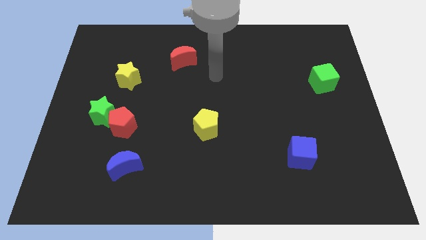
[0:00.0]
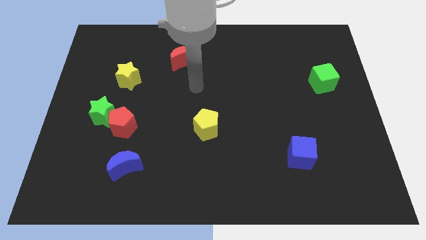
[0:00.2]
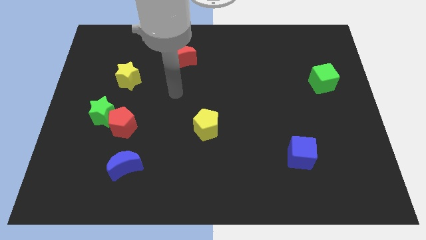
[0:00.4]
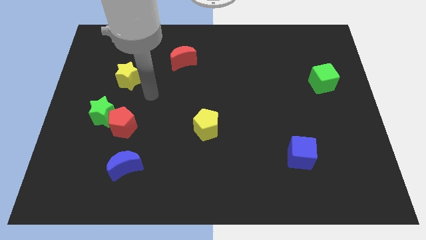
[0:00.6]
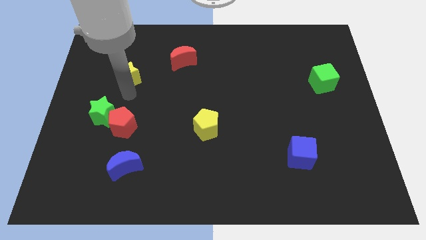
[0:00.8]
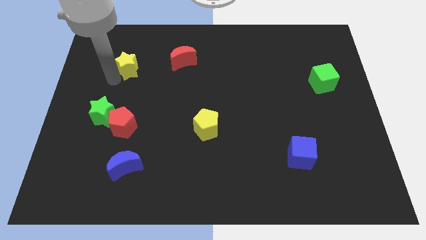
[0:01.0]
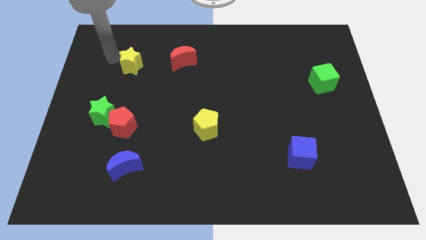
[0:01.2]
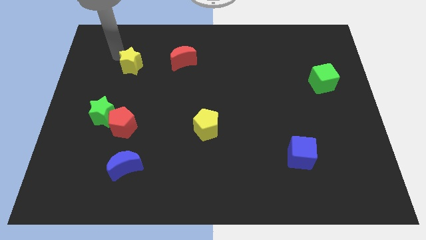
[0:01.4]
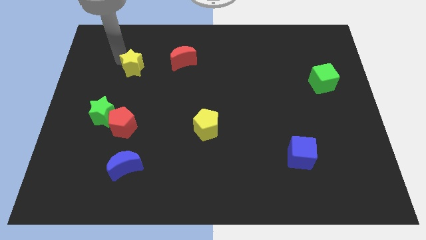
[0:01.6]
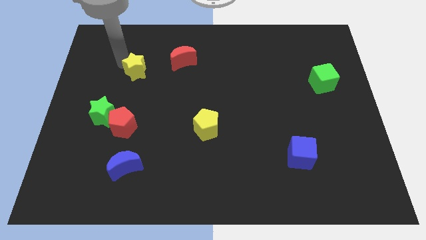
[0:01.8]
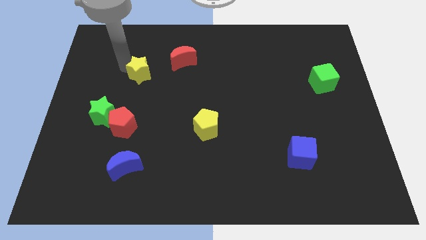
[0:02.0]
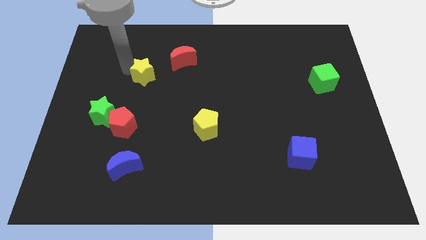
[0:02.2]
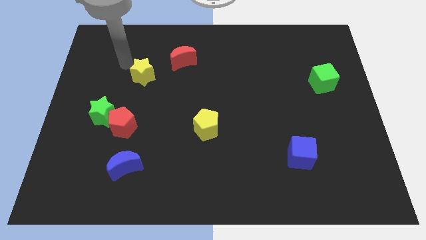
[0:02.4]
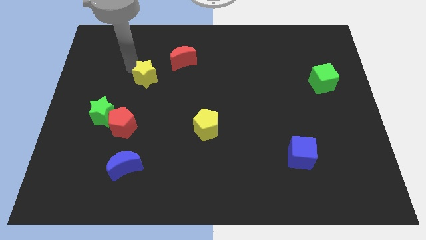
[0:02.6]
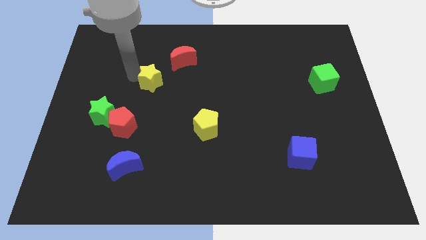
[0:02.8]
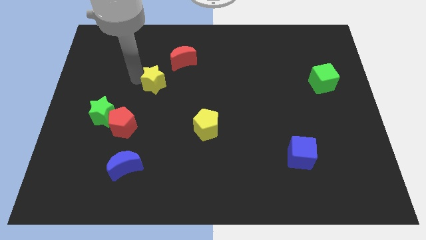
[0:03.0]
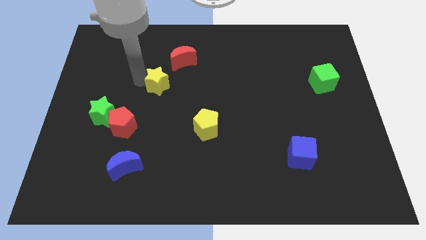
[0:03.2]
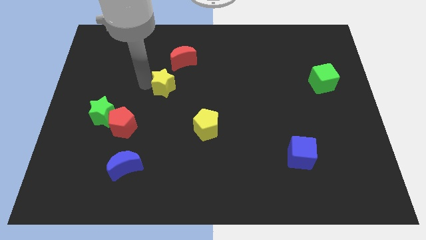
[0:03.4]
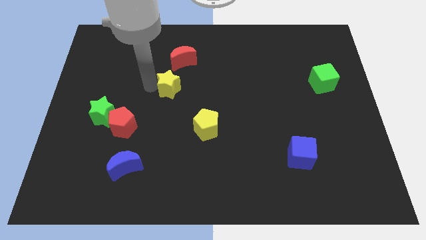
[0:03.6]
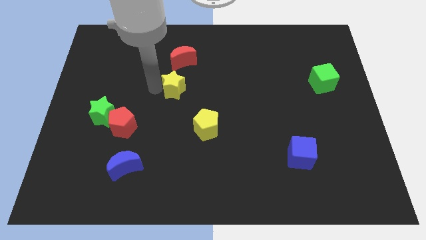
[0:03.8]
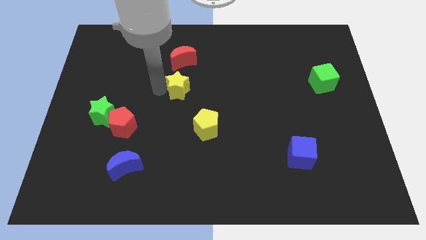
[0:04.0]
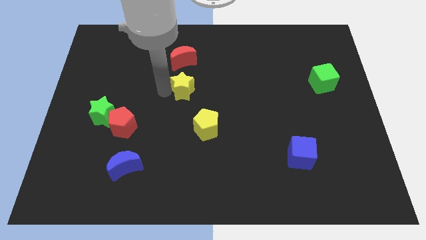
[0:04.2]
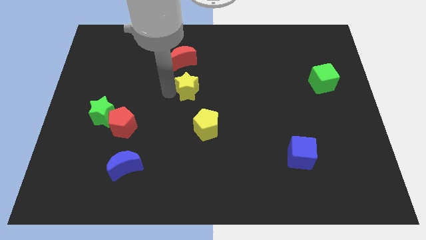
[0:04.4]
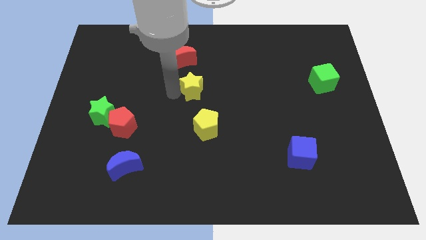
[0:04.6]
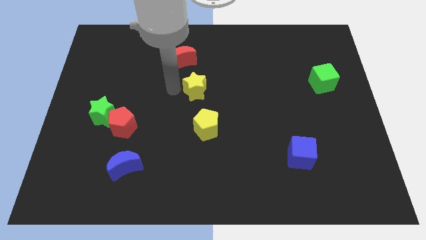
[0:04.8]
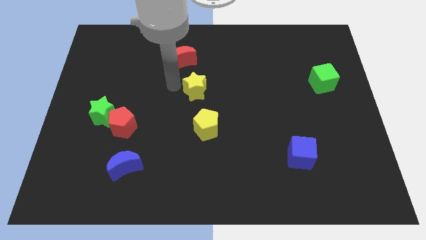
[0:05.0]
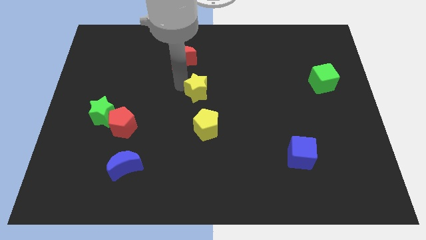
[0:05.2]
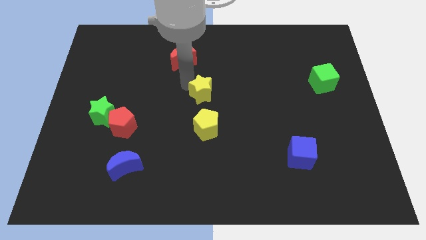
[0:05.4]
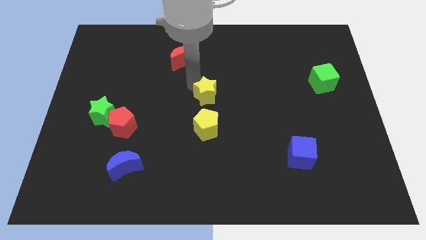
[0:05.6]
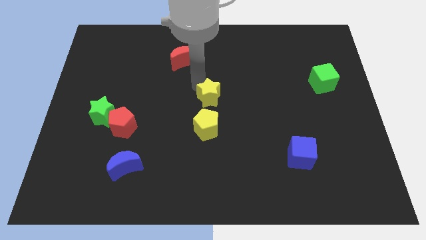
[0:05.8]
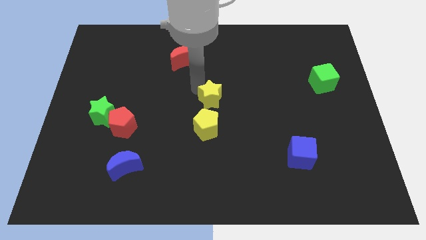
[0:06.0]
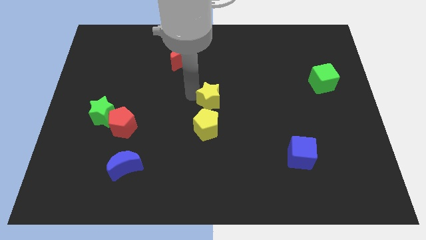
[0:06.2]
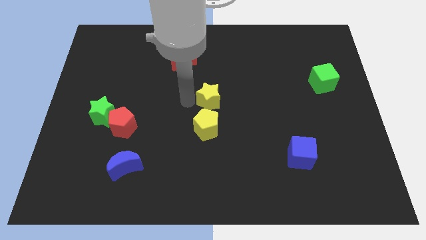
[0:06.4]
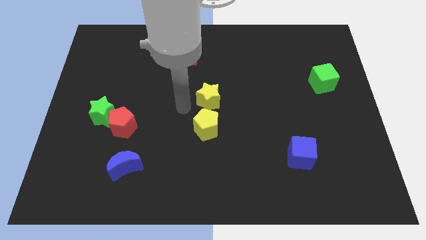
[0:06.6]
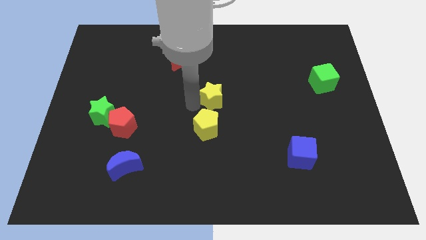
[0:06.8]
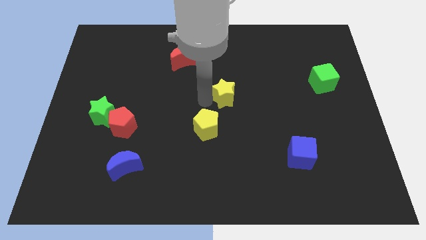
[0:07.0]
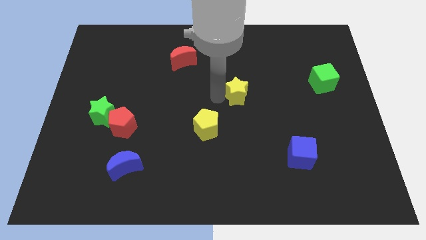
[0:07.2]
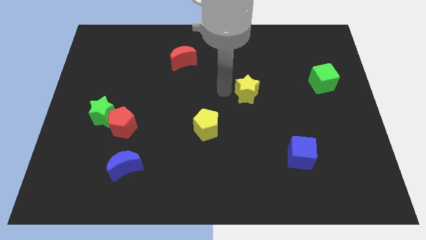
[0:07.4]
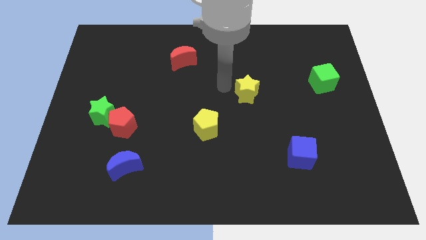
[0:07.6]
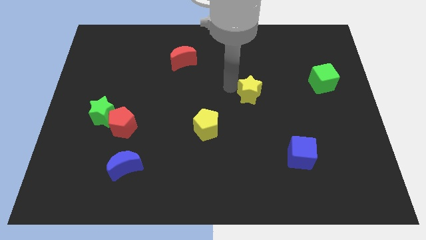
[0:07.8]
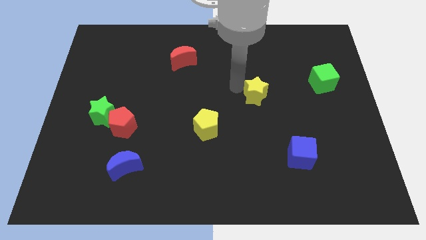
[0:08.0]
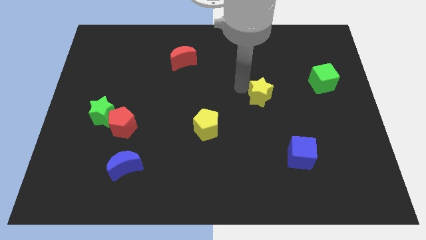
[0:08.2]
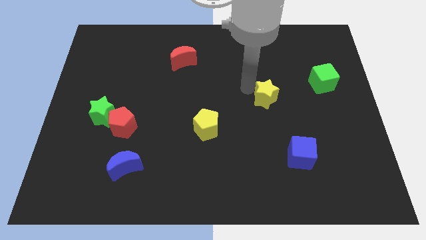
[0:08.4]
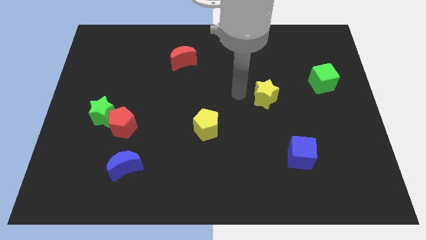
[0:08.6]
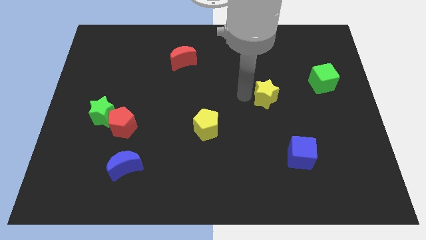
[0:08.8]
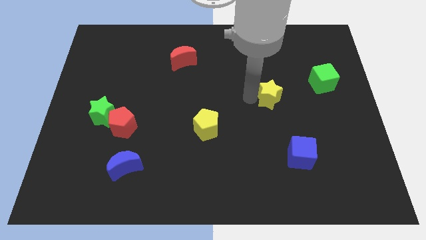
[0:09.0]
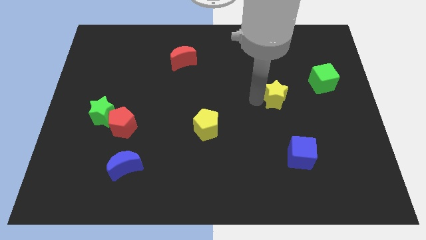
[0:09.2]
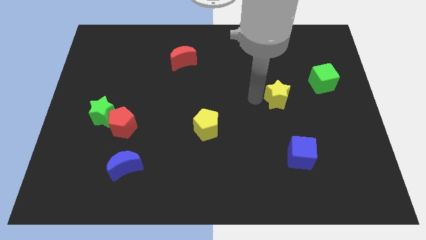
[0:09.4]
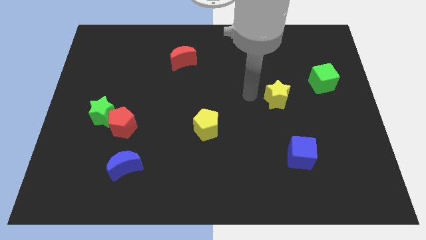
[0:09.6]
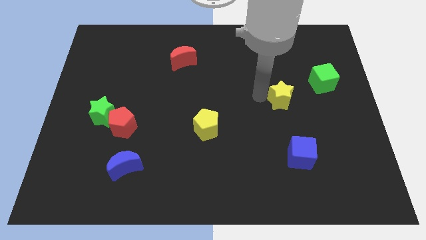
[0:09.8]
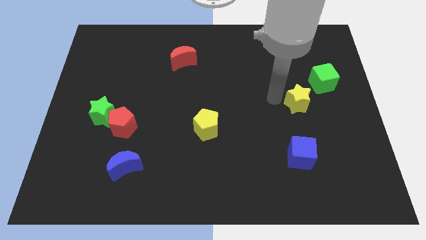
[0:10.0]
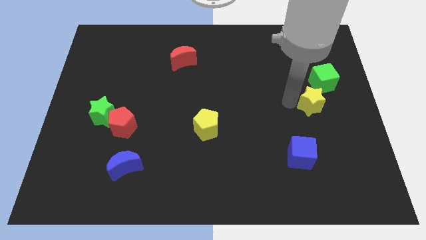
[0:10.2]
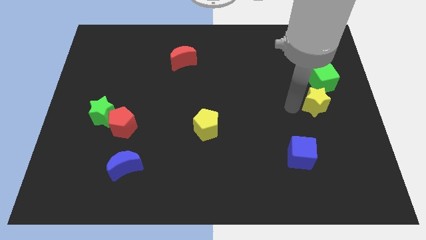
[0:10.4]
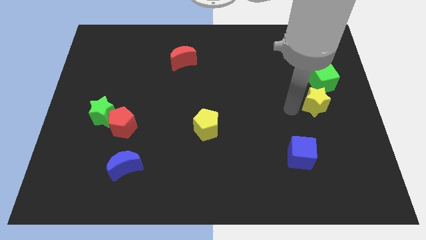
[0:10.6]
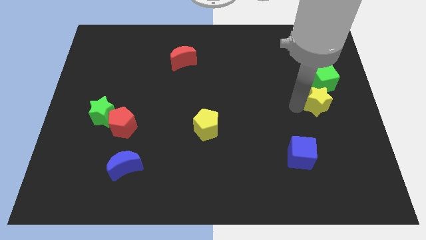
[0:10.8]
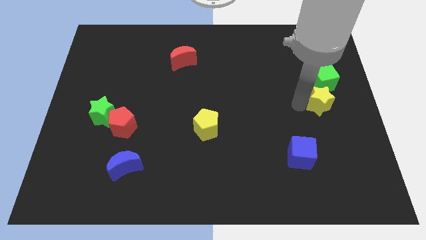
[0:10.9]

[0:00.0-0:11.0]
move the yellow star to the right side
